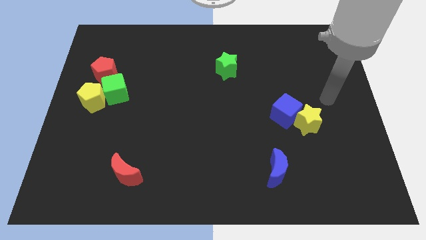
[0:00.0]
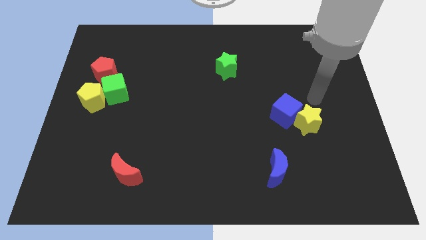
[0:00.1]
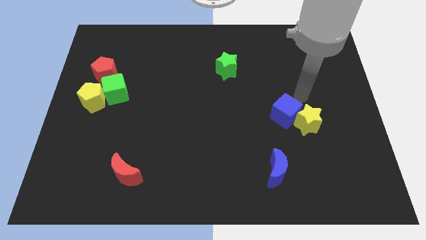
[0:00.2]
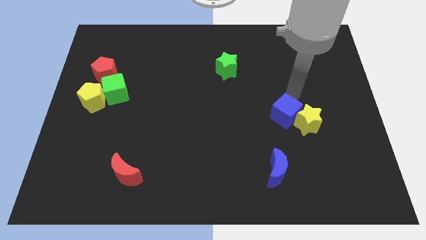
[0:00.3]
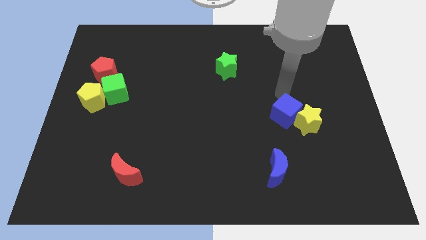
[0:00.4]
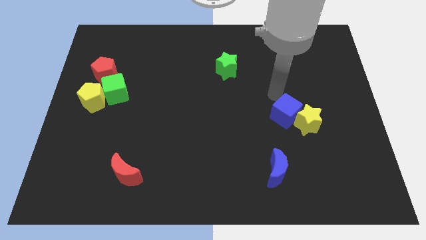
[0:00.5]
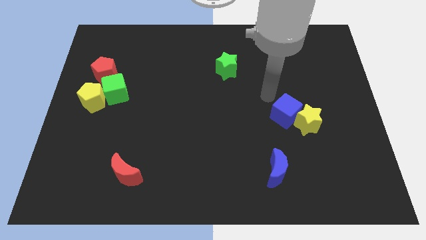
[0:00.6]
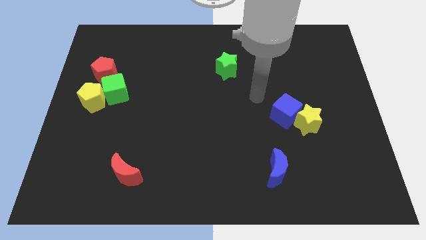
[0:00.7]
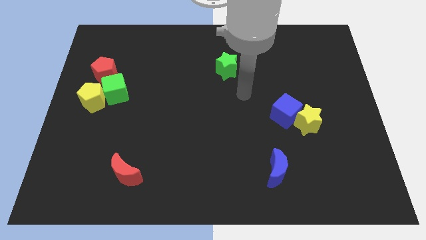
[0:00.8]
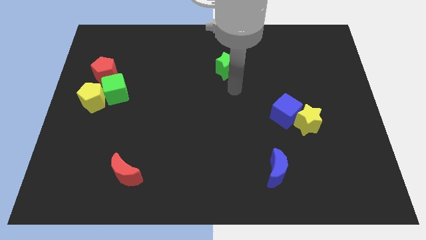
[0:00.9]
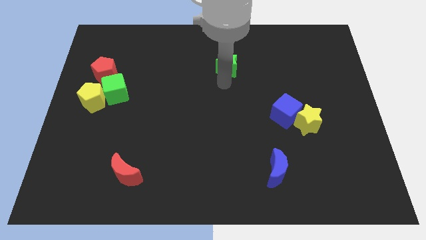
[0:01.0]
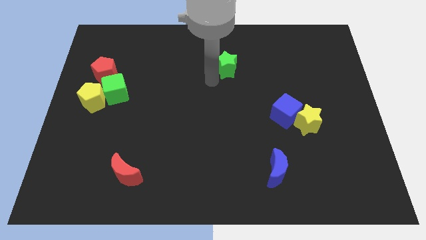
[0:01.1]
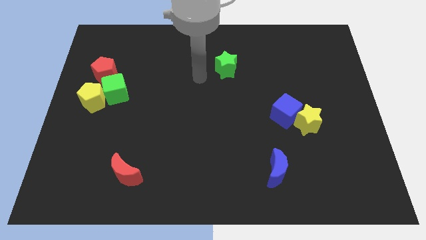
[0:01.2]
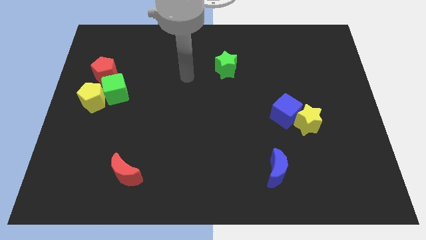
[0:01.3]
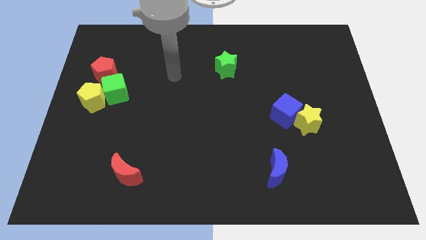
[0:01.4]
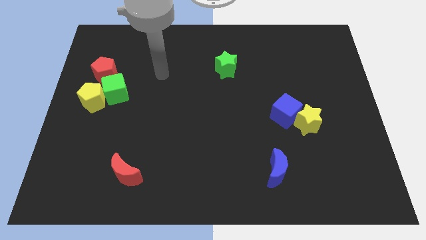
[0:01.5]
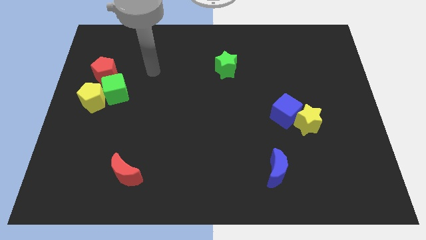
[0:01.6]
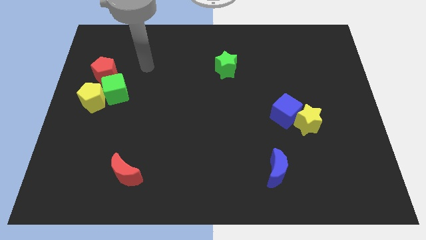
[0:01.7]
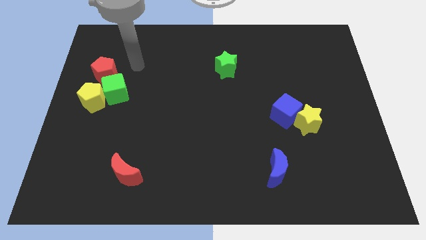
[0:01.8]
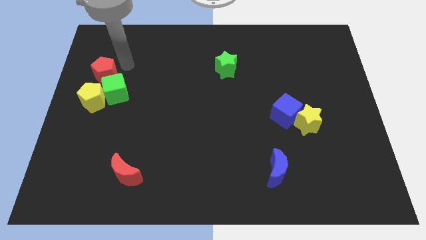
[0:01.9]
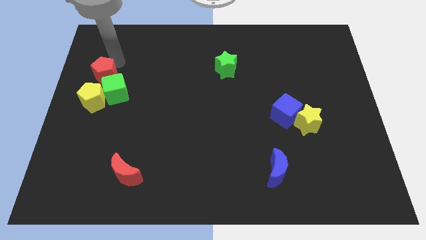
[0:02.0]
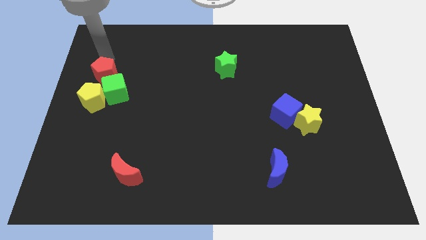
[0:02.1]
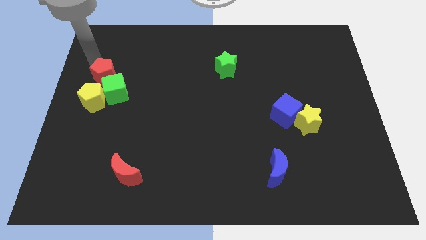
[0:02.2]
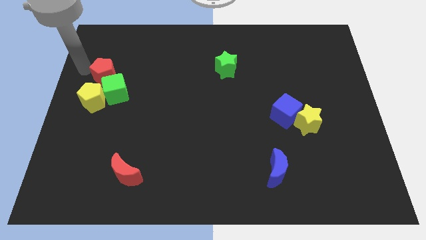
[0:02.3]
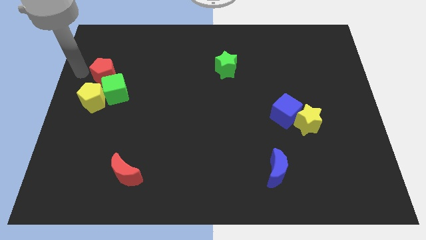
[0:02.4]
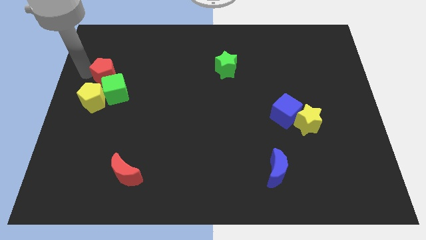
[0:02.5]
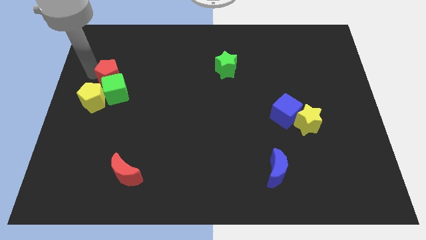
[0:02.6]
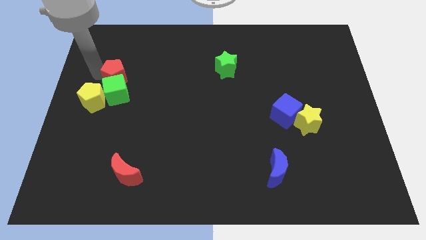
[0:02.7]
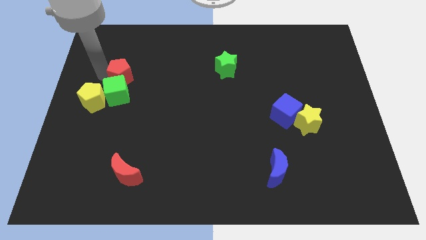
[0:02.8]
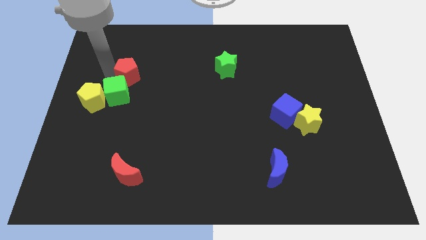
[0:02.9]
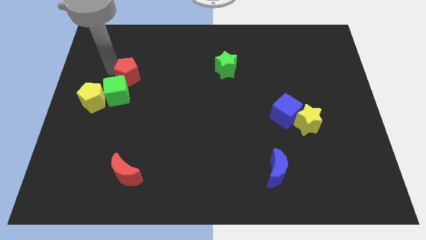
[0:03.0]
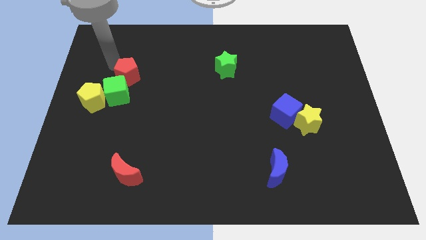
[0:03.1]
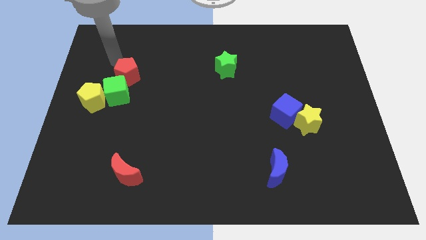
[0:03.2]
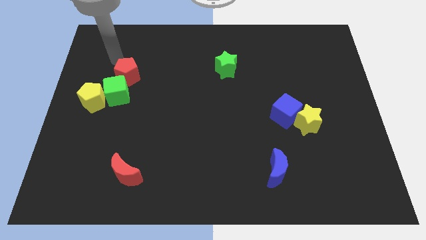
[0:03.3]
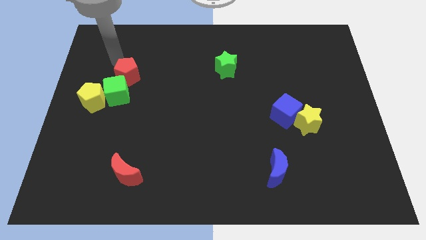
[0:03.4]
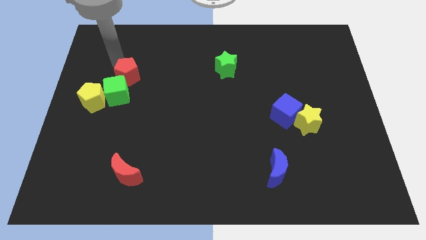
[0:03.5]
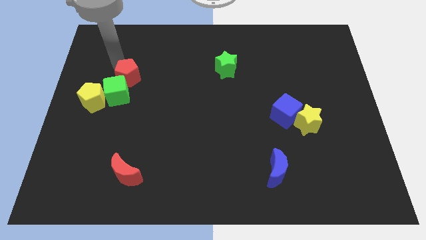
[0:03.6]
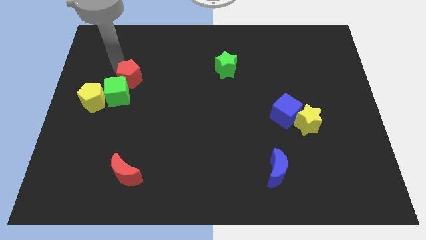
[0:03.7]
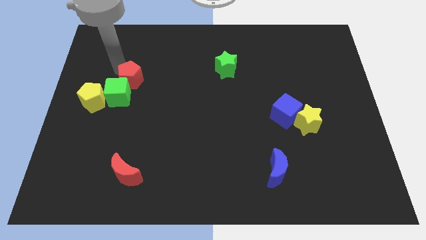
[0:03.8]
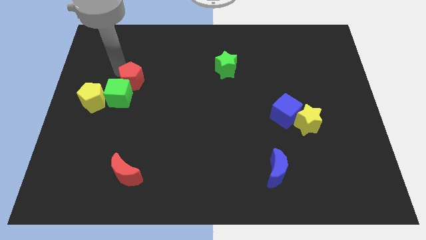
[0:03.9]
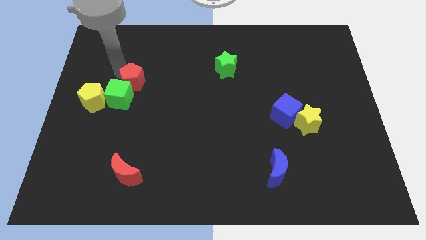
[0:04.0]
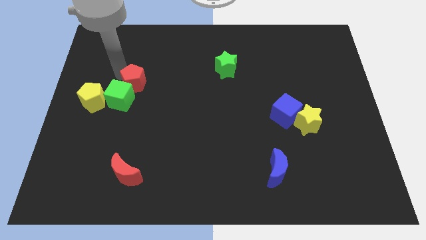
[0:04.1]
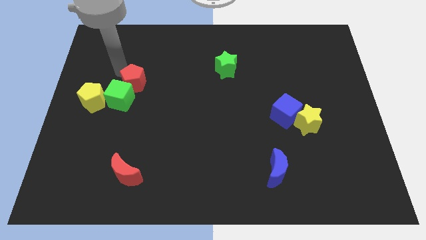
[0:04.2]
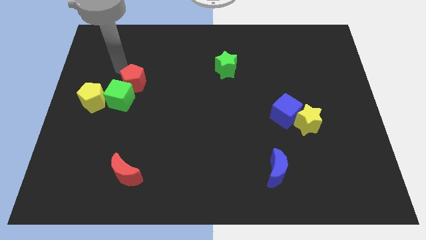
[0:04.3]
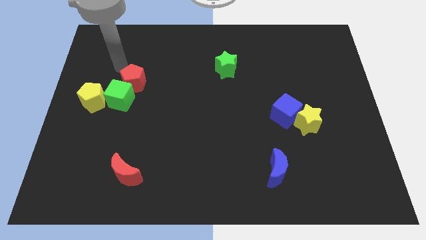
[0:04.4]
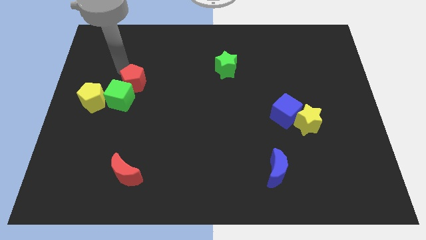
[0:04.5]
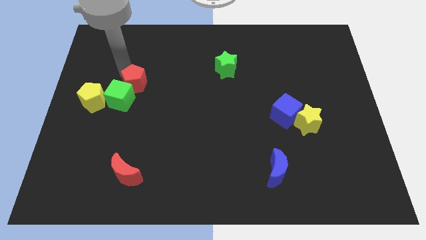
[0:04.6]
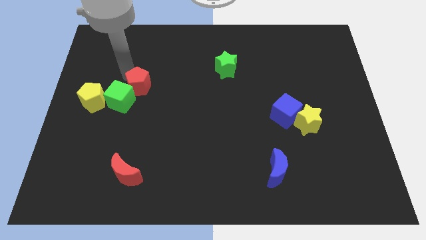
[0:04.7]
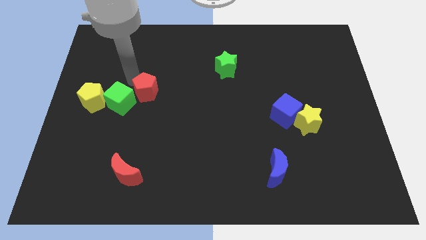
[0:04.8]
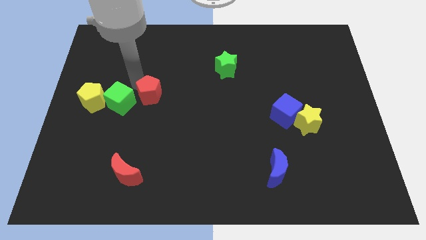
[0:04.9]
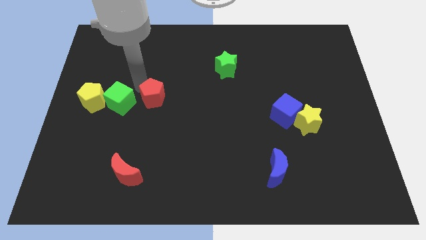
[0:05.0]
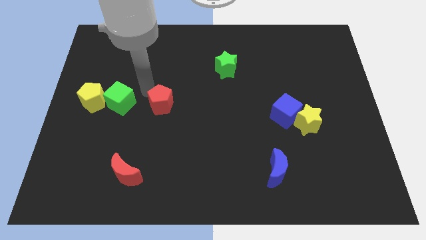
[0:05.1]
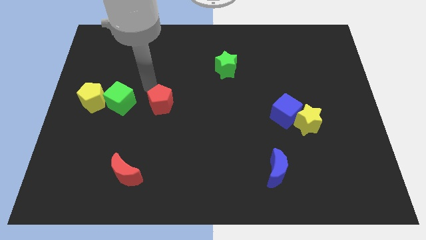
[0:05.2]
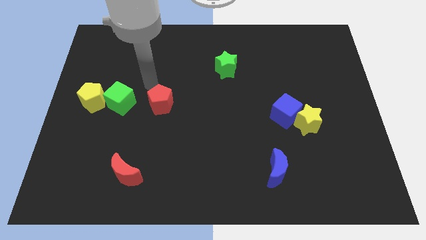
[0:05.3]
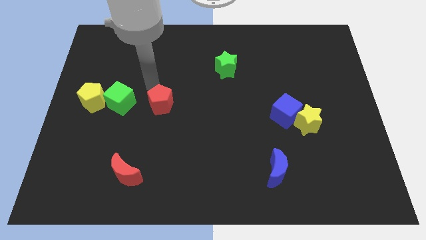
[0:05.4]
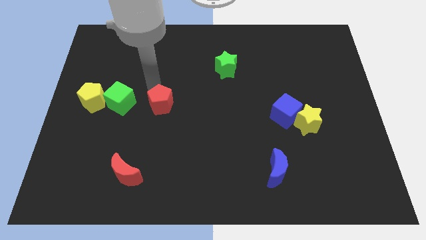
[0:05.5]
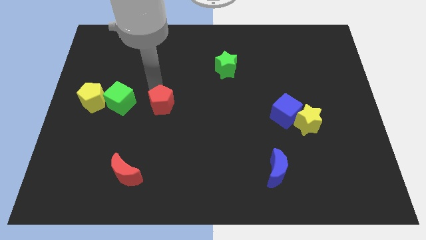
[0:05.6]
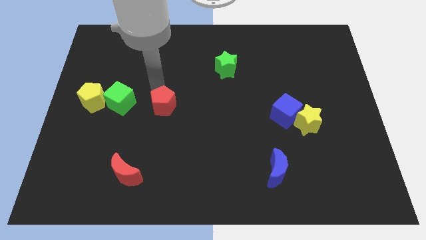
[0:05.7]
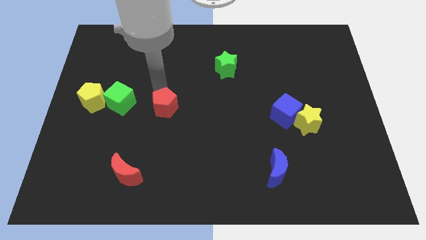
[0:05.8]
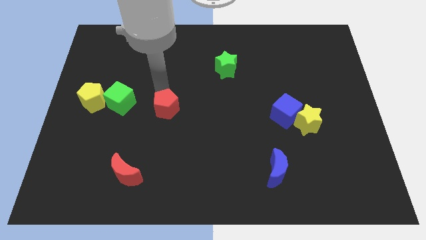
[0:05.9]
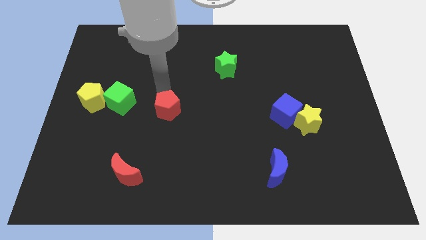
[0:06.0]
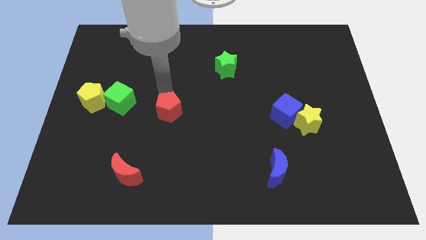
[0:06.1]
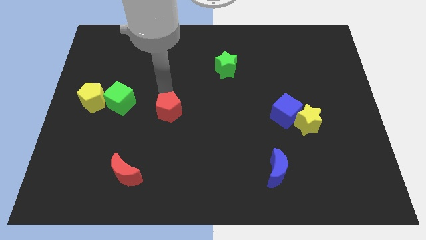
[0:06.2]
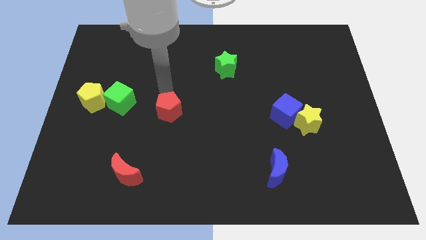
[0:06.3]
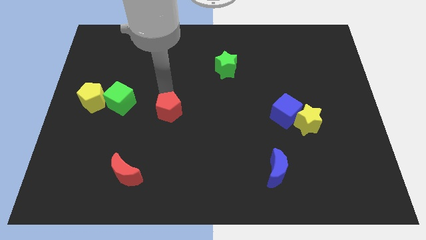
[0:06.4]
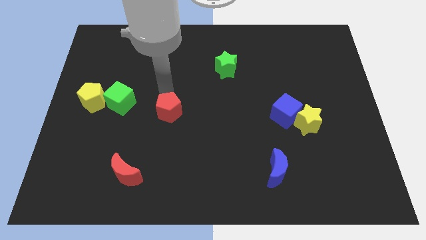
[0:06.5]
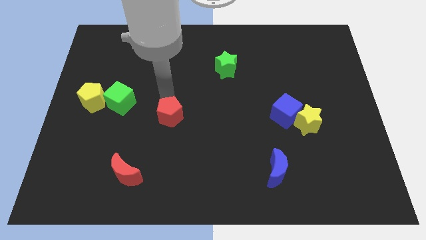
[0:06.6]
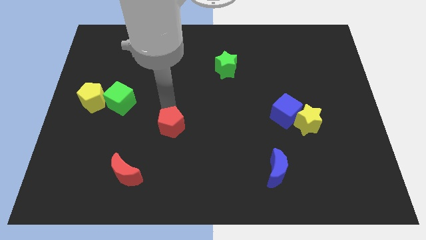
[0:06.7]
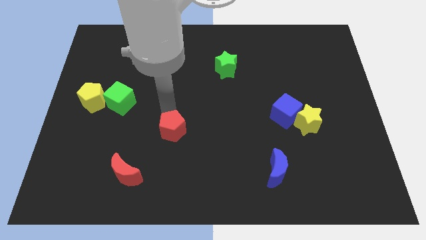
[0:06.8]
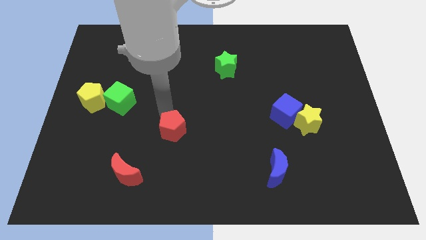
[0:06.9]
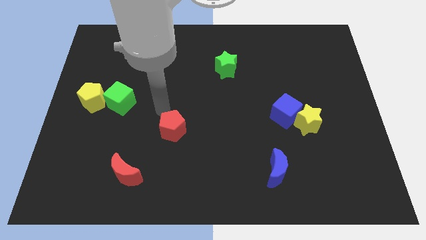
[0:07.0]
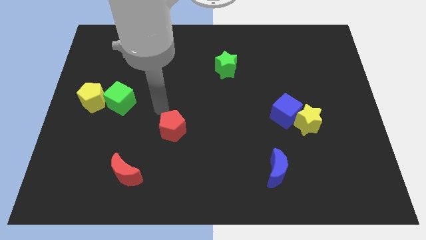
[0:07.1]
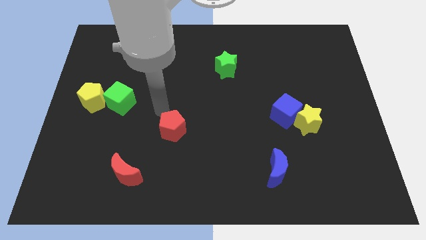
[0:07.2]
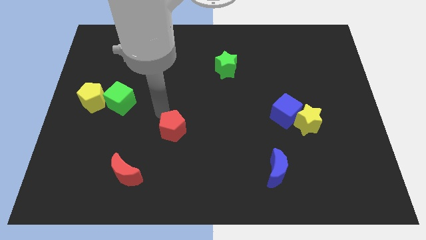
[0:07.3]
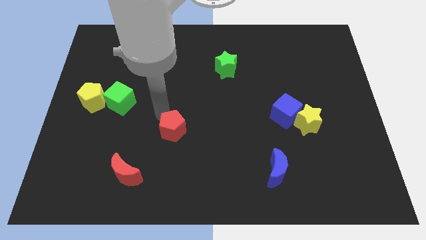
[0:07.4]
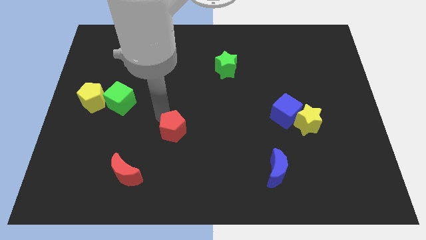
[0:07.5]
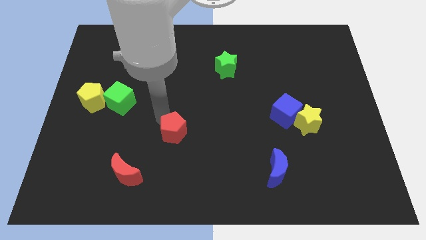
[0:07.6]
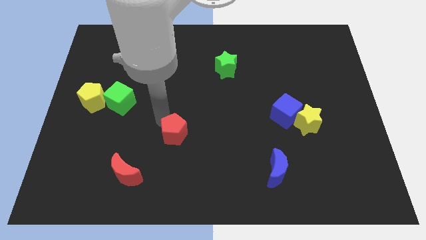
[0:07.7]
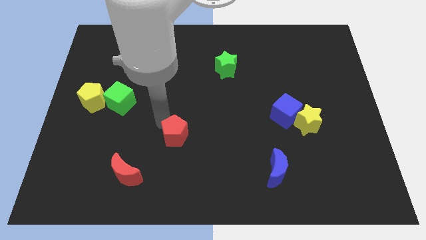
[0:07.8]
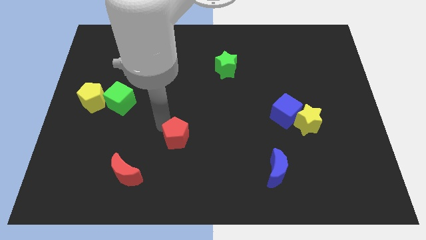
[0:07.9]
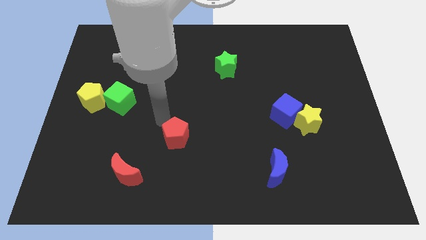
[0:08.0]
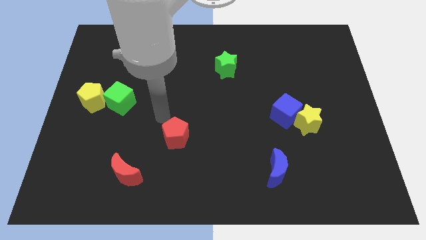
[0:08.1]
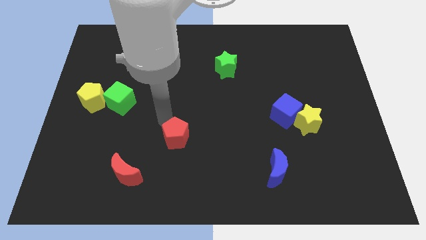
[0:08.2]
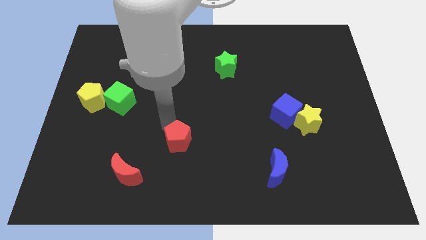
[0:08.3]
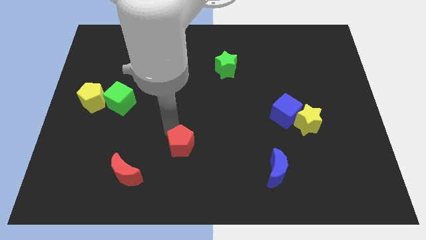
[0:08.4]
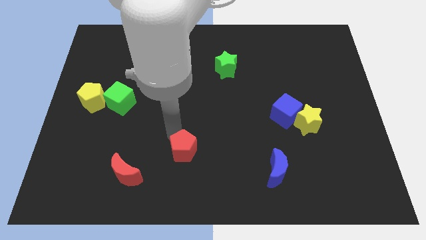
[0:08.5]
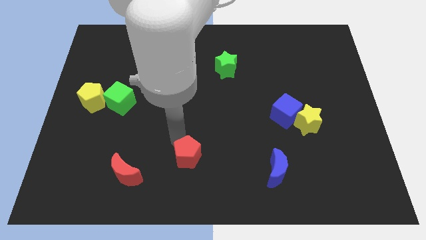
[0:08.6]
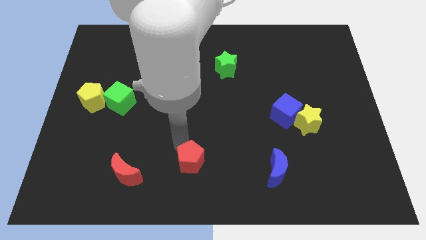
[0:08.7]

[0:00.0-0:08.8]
push the red pentagon to the bottom
